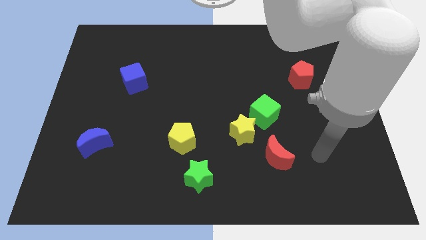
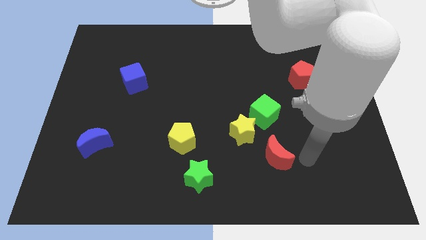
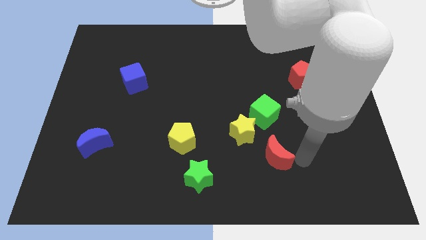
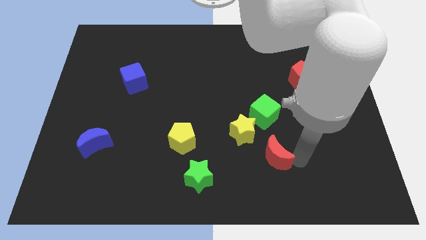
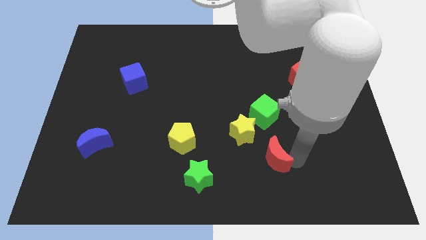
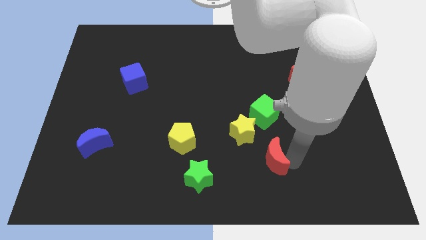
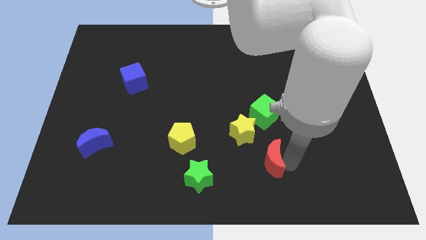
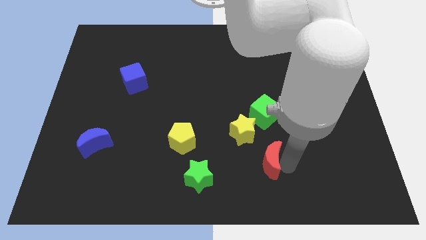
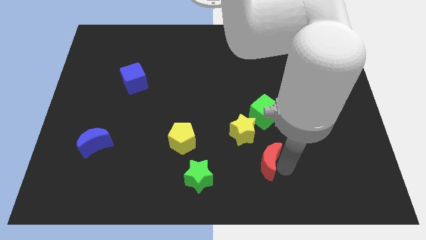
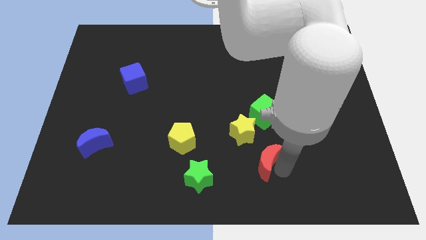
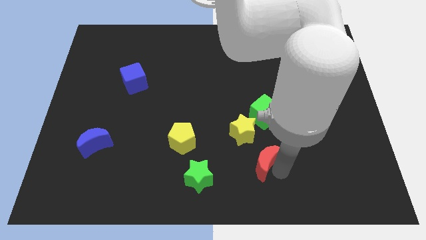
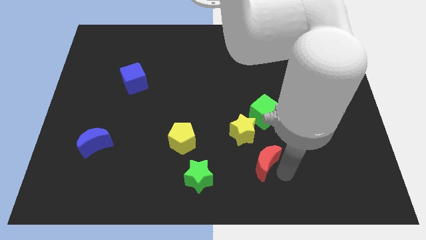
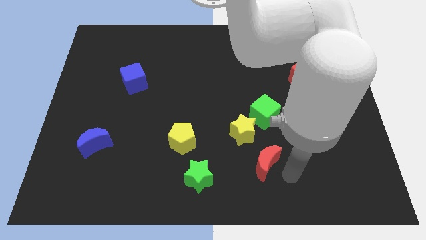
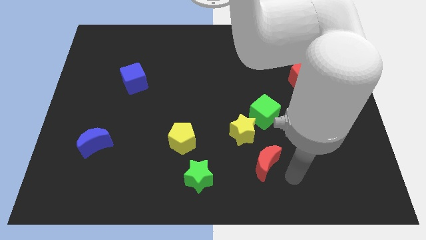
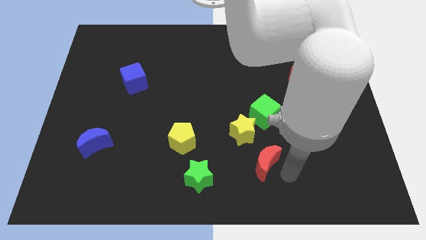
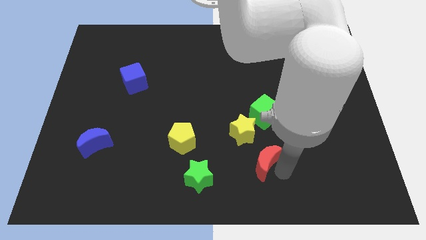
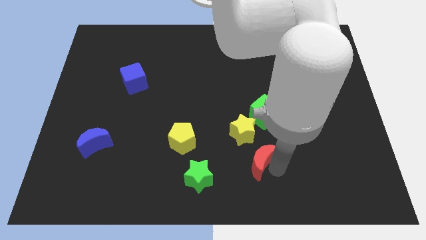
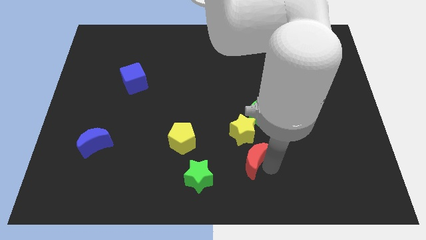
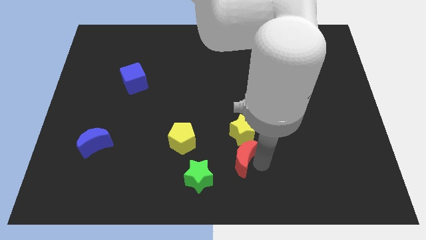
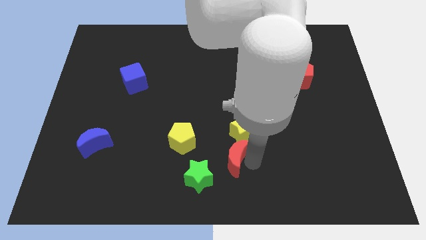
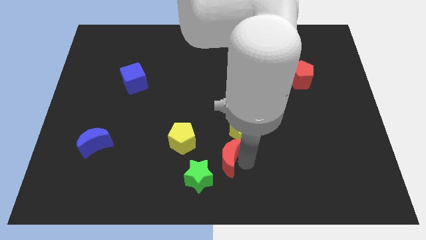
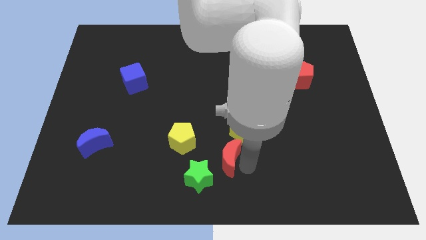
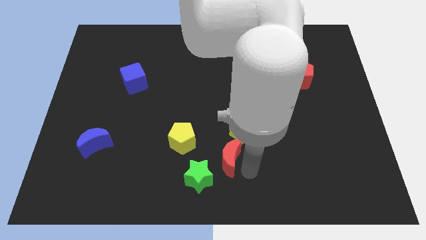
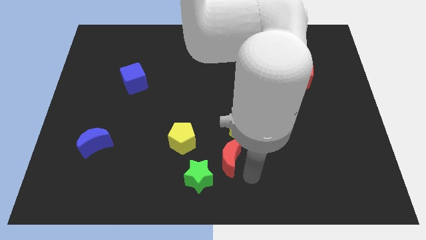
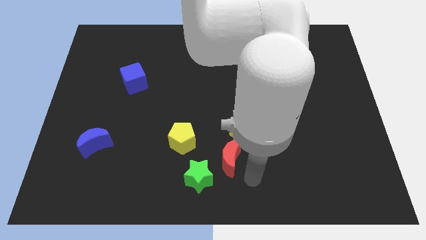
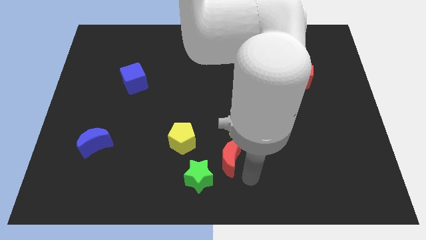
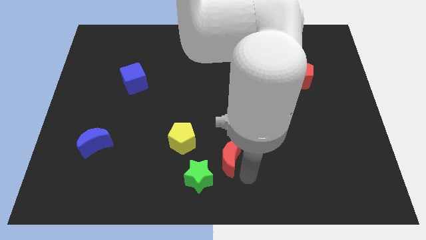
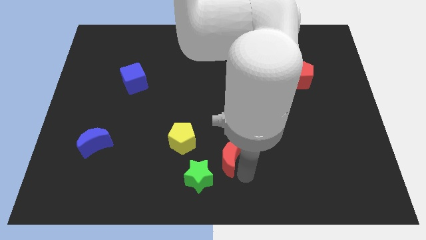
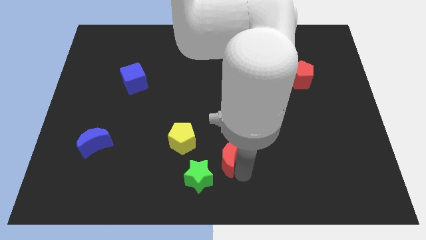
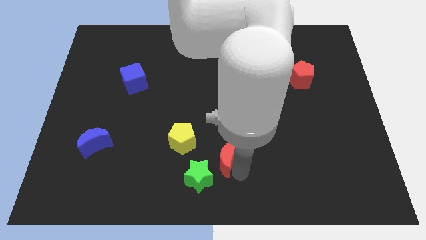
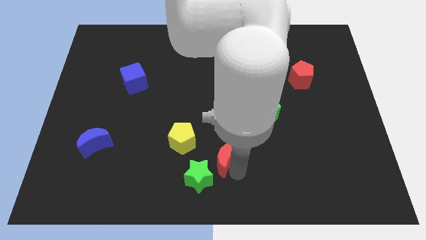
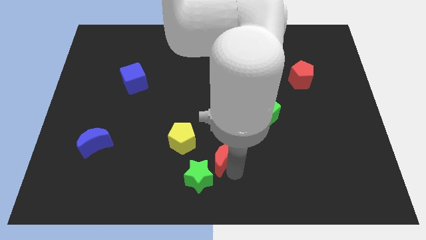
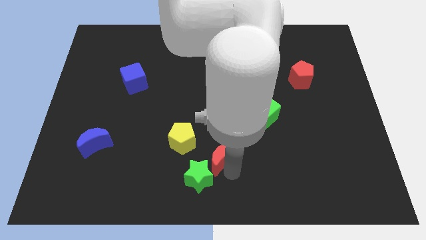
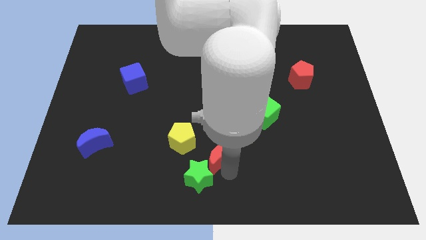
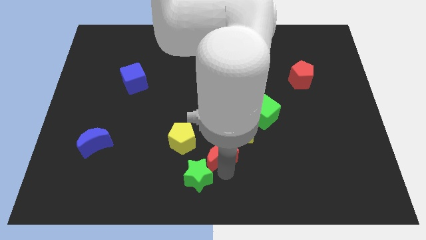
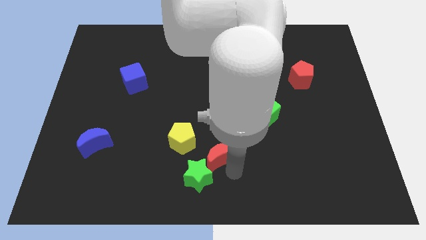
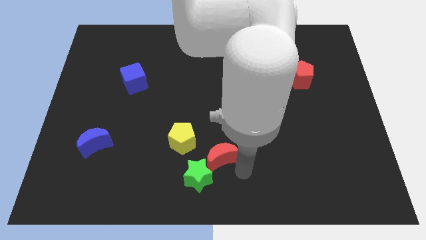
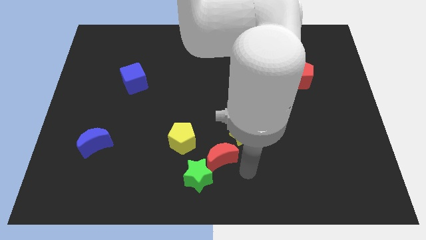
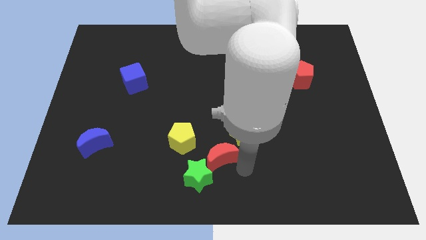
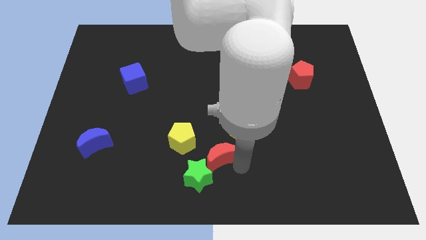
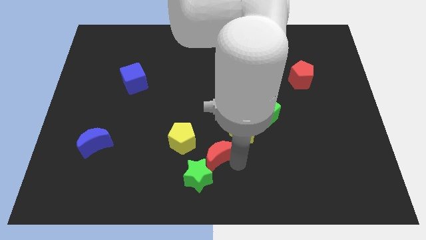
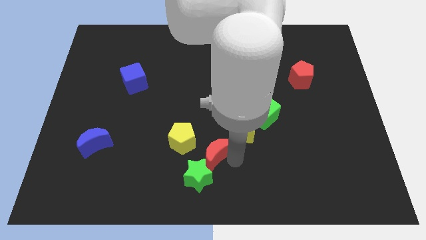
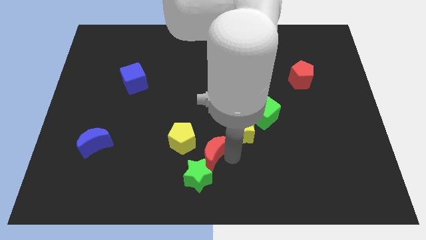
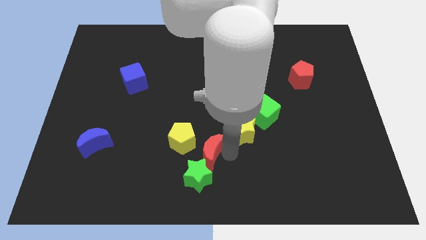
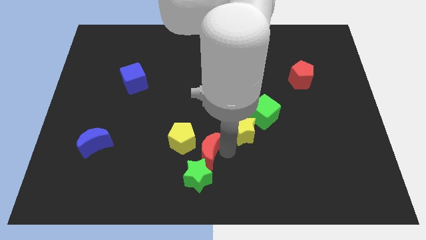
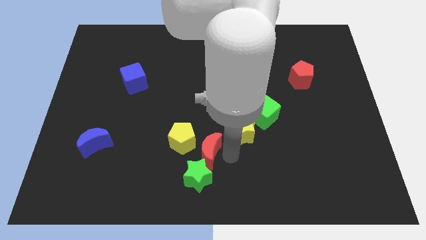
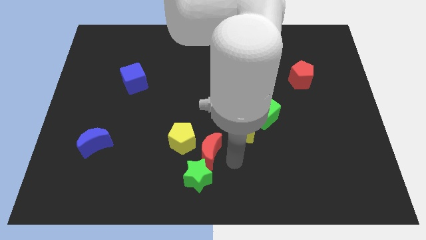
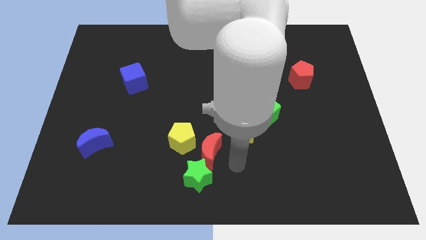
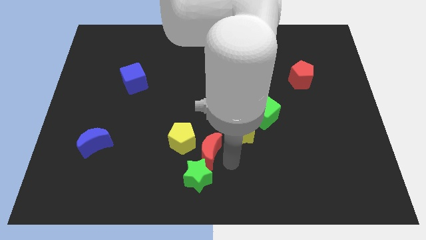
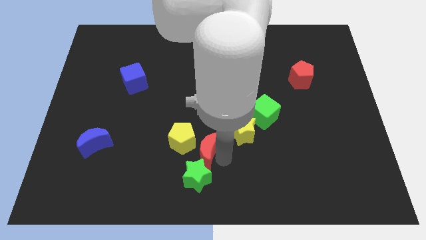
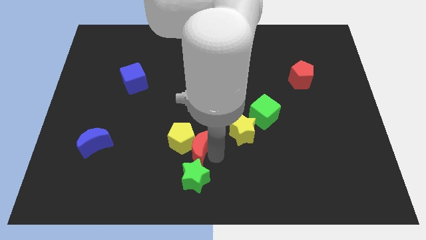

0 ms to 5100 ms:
put the red moon to the yellow pentagon

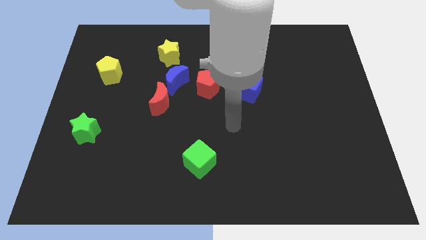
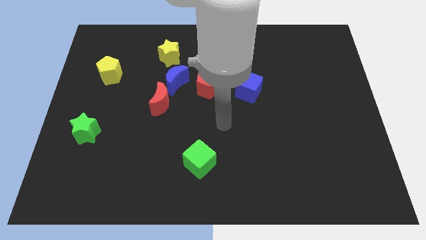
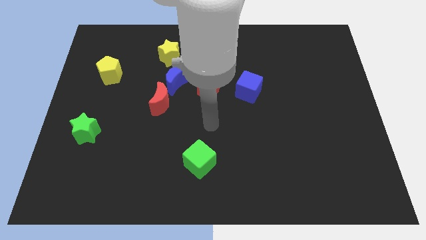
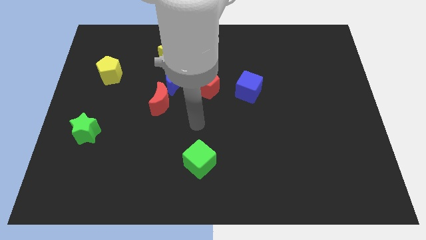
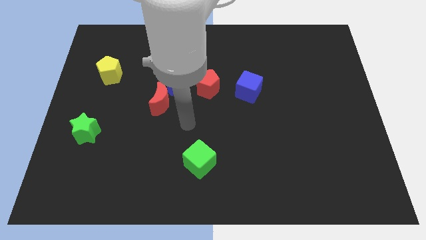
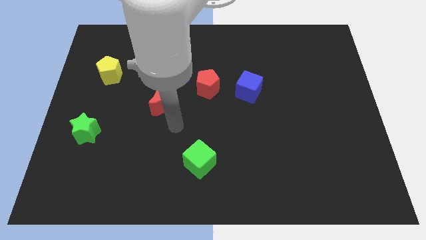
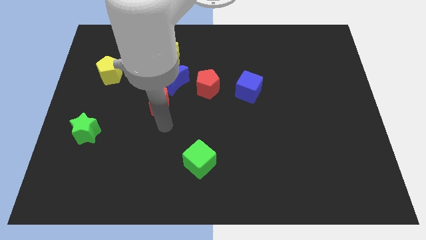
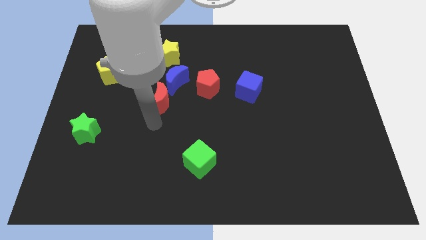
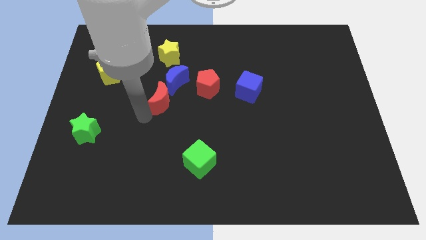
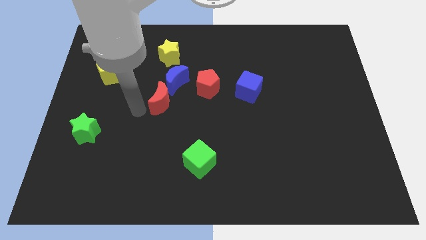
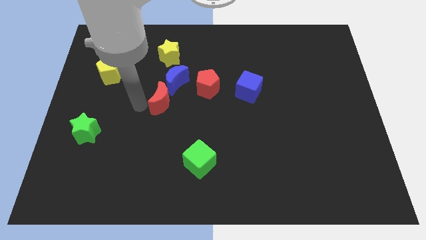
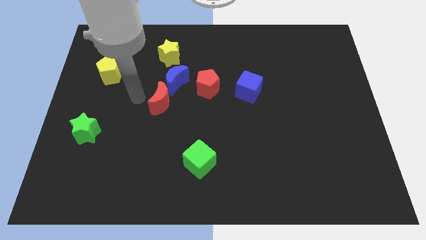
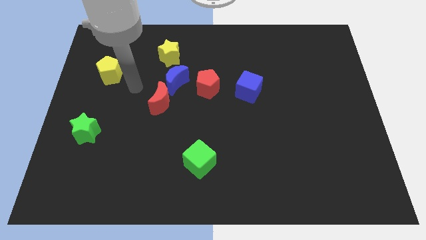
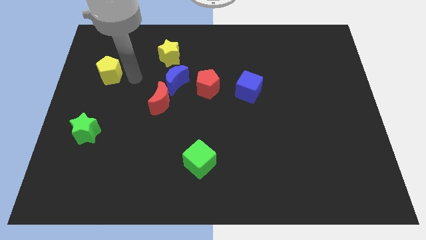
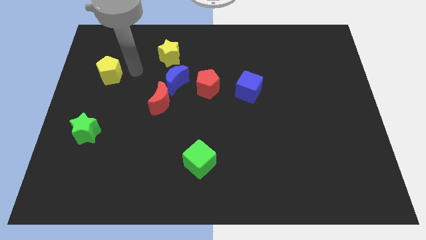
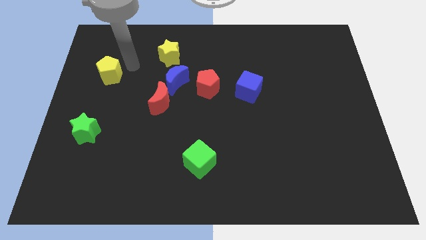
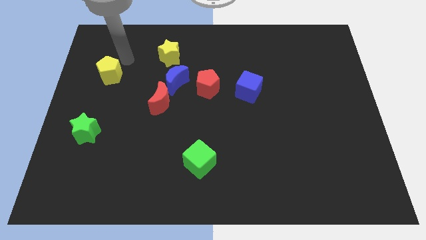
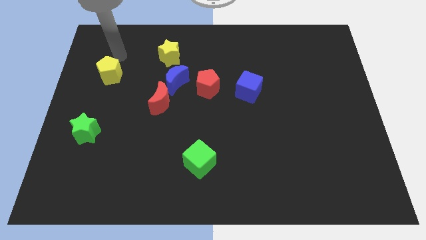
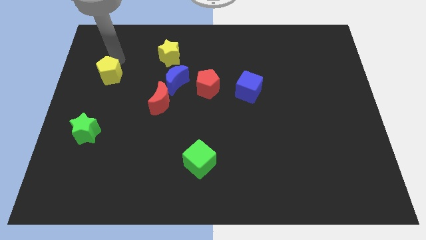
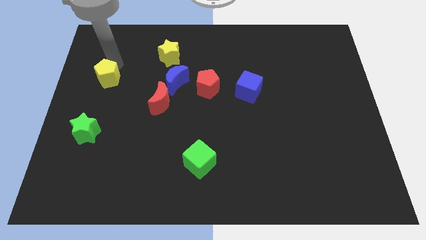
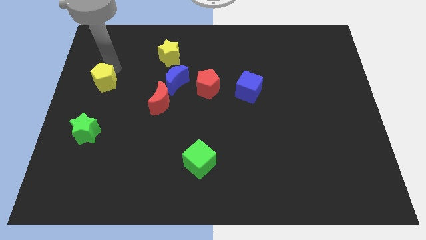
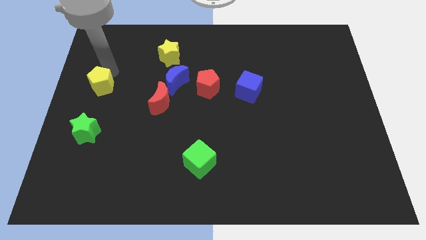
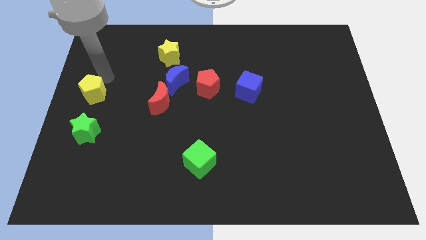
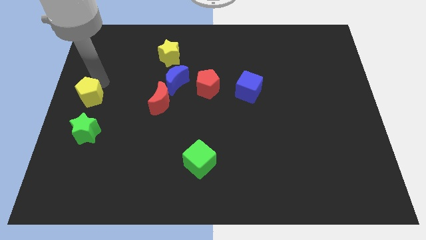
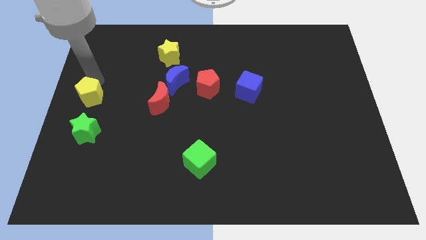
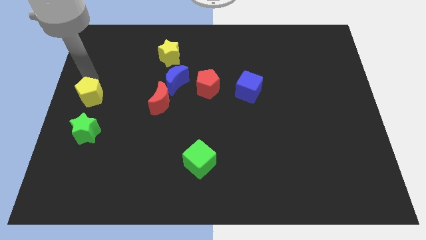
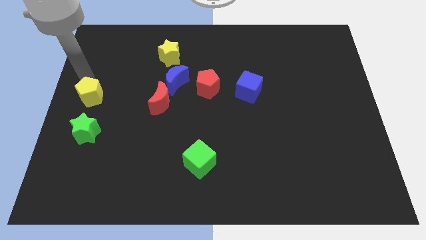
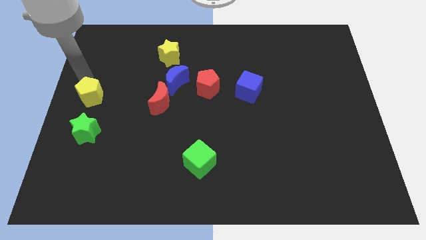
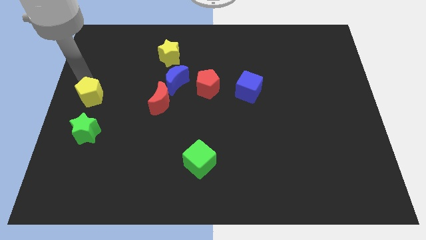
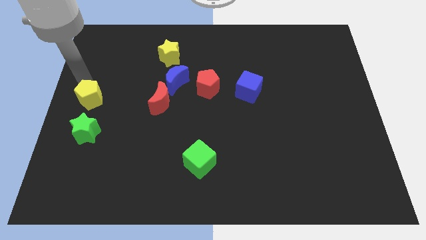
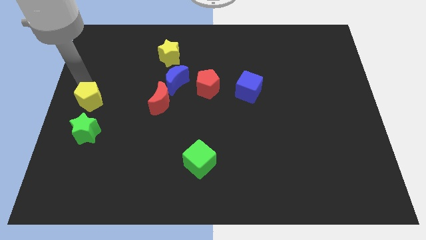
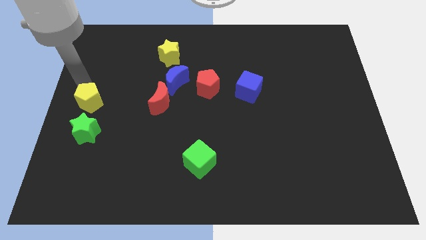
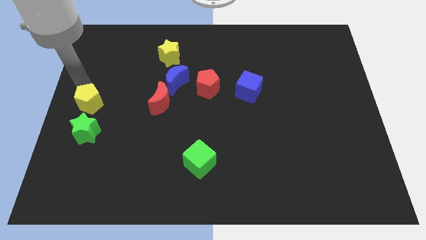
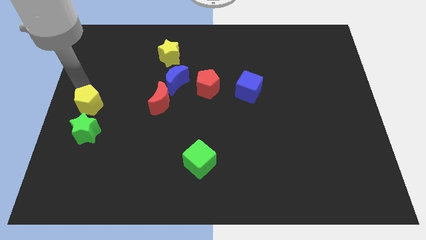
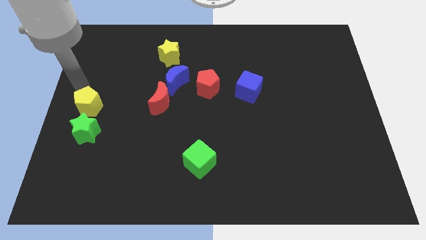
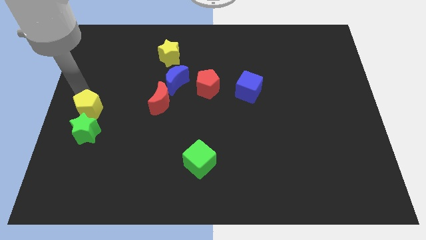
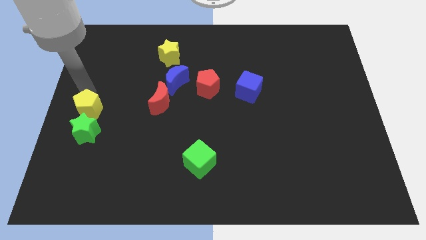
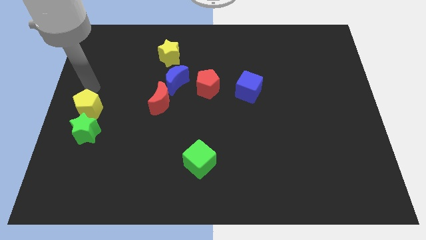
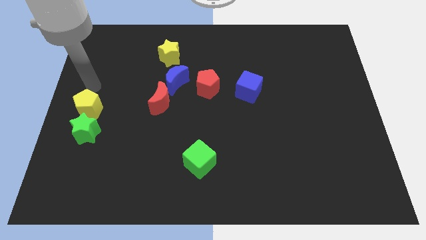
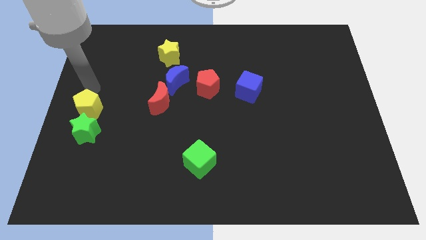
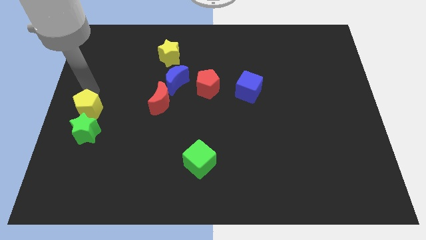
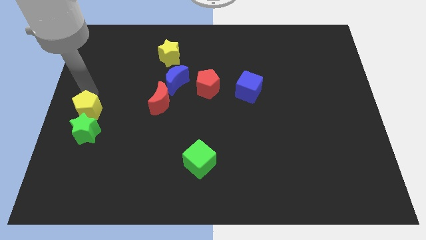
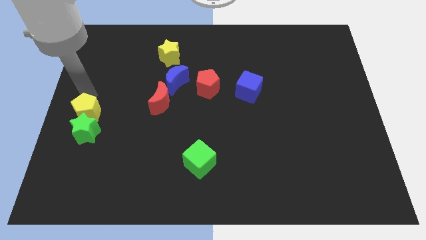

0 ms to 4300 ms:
slide the yellow pentagon to the green star
